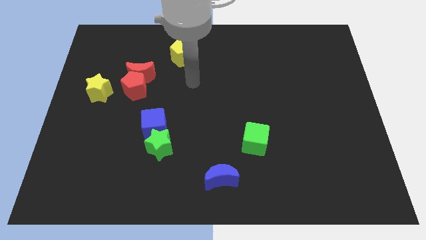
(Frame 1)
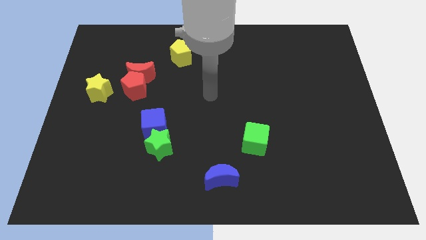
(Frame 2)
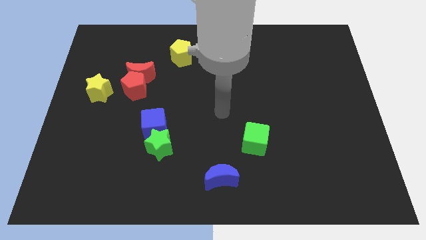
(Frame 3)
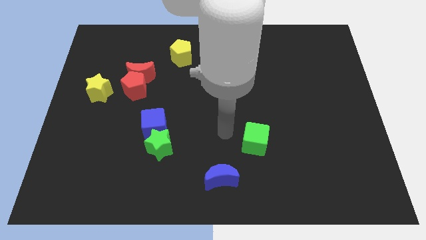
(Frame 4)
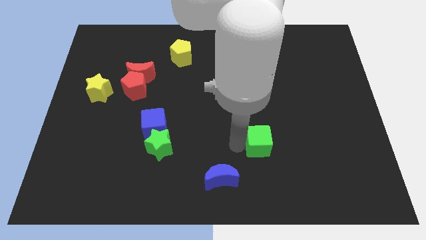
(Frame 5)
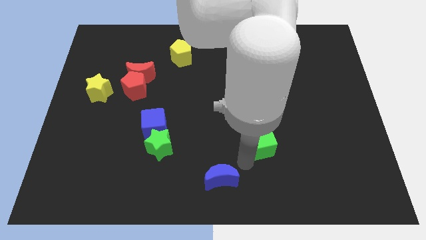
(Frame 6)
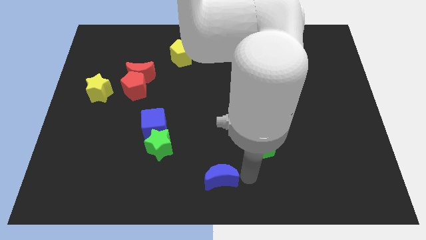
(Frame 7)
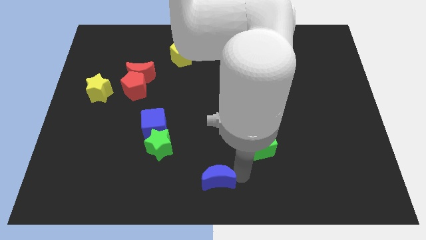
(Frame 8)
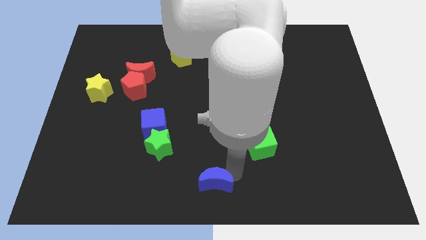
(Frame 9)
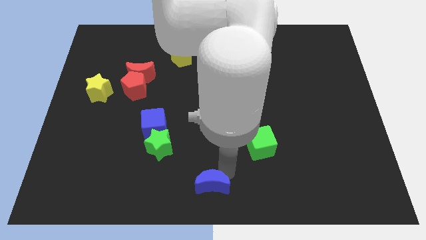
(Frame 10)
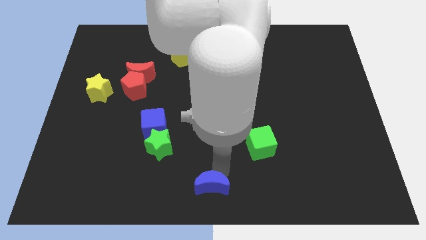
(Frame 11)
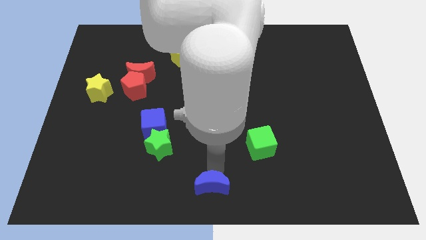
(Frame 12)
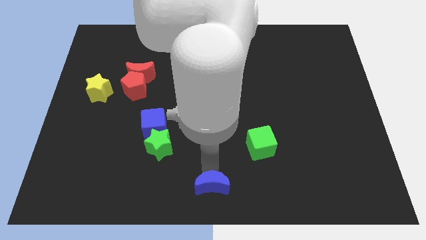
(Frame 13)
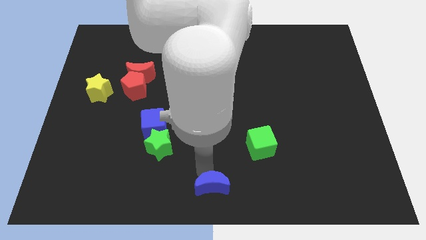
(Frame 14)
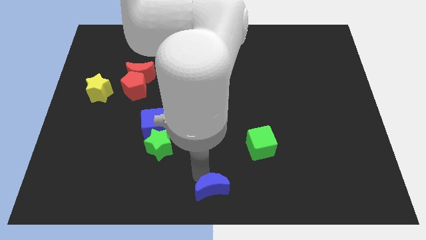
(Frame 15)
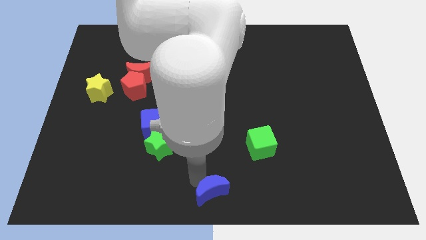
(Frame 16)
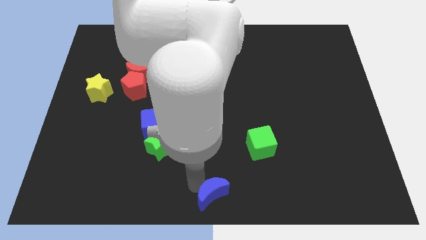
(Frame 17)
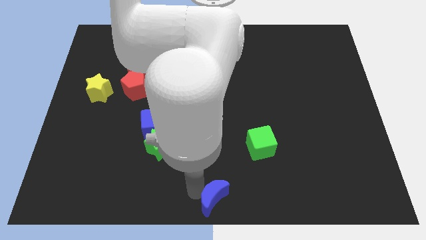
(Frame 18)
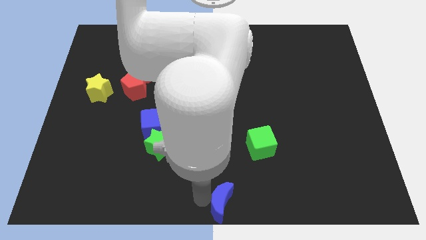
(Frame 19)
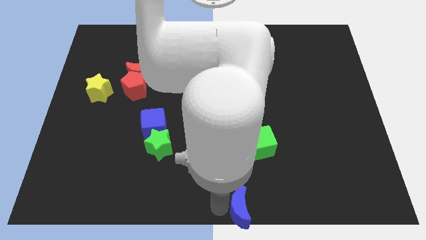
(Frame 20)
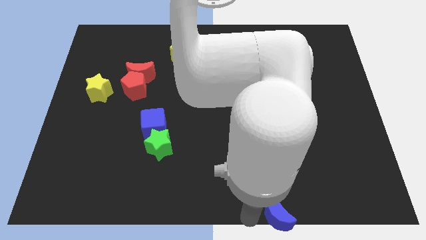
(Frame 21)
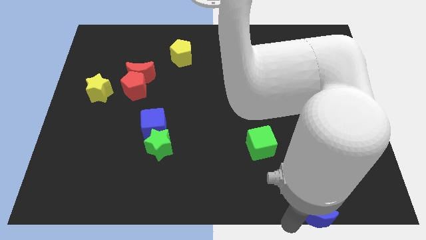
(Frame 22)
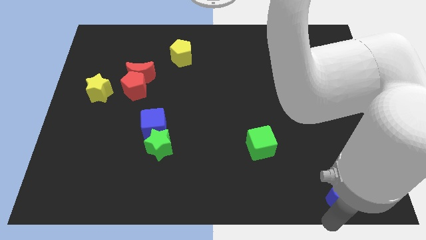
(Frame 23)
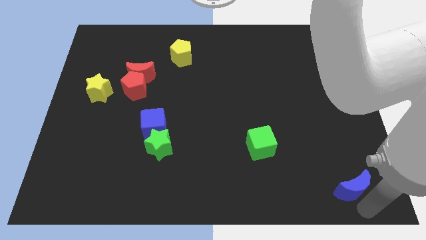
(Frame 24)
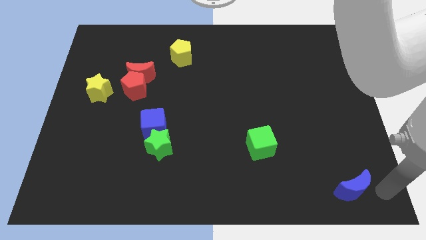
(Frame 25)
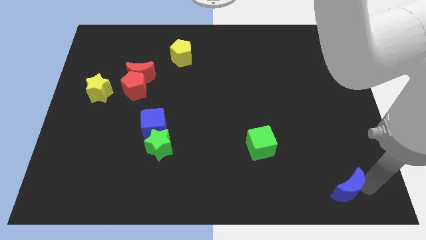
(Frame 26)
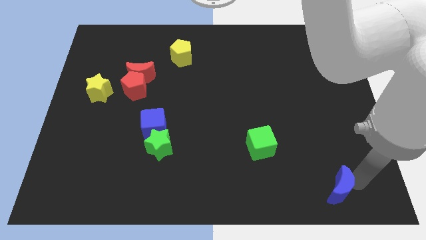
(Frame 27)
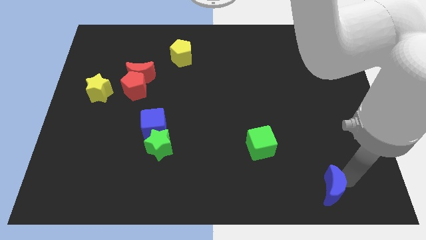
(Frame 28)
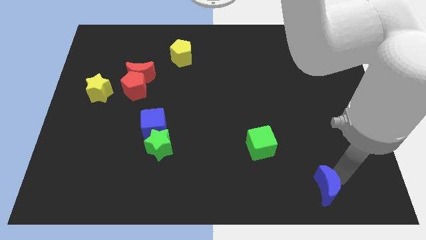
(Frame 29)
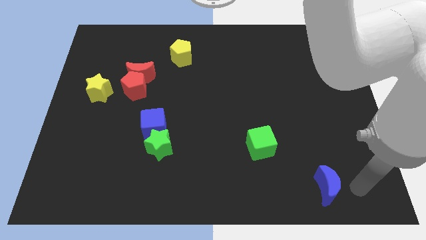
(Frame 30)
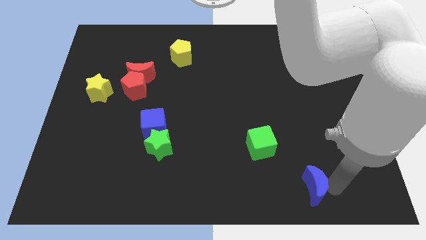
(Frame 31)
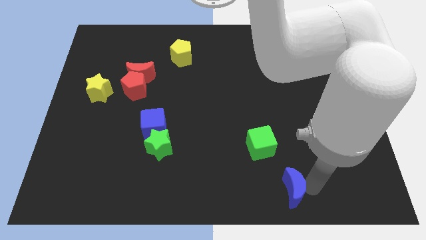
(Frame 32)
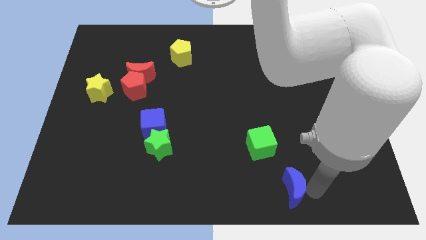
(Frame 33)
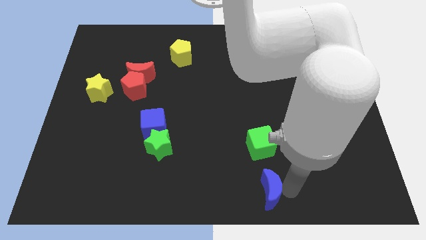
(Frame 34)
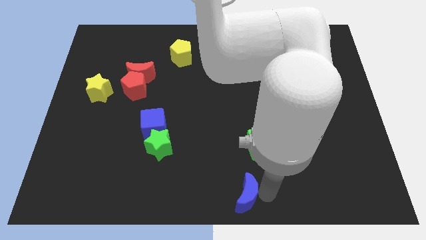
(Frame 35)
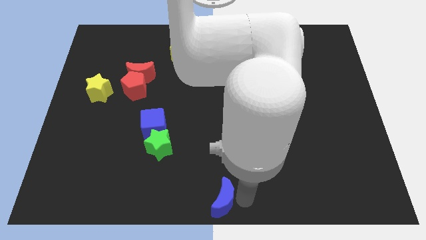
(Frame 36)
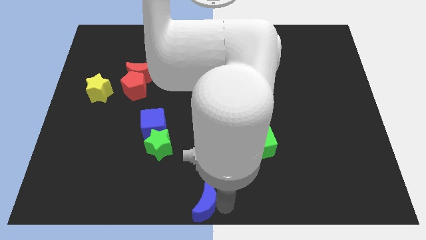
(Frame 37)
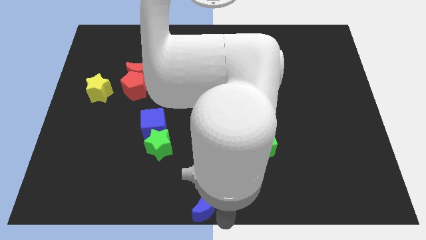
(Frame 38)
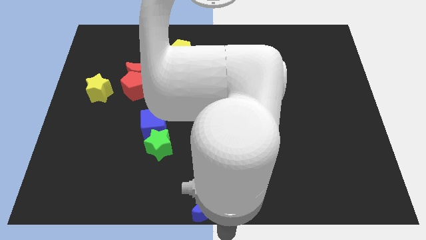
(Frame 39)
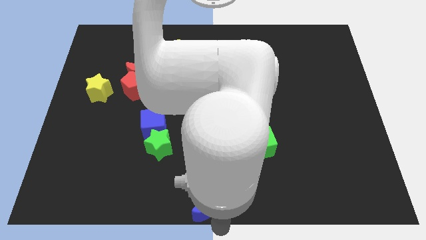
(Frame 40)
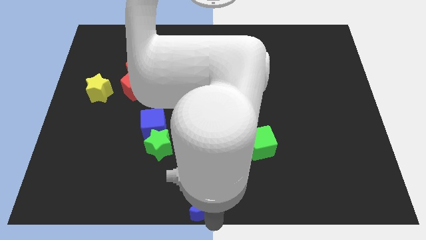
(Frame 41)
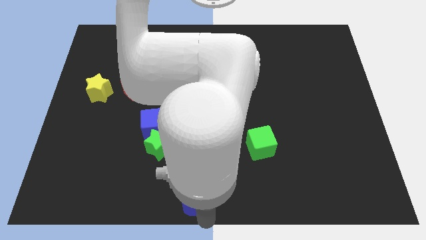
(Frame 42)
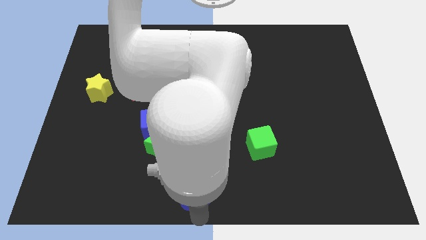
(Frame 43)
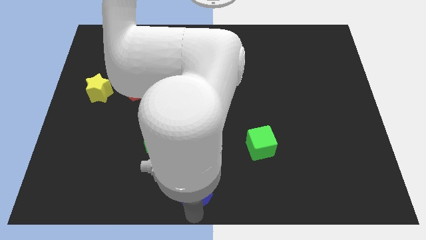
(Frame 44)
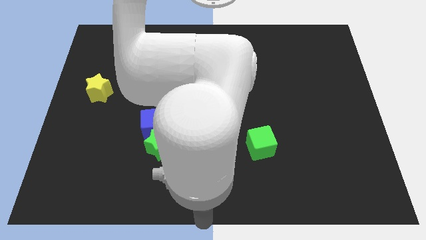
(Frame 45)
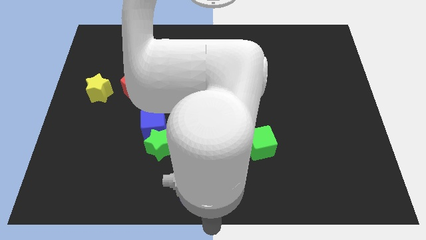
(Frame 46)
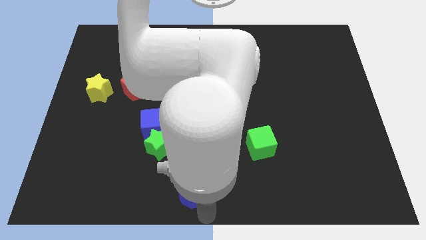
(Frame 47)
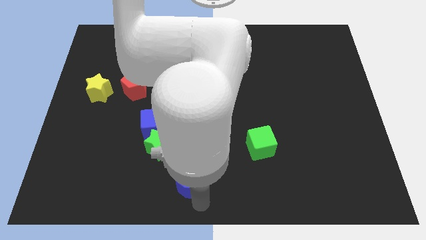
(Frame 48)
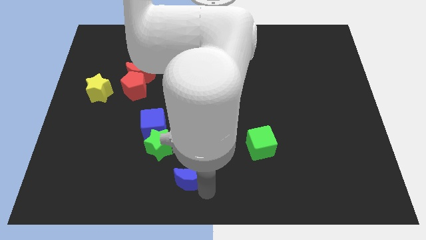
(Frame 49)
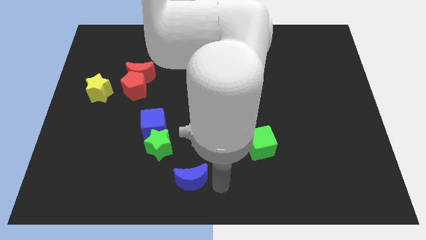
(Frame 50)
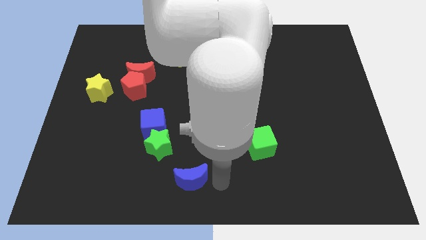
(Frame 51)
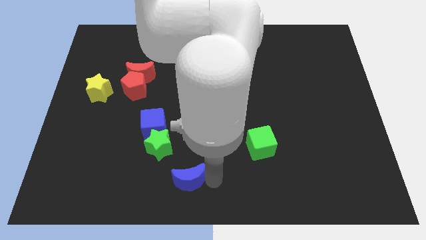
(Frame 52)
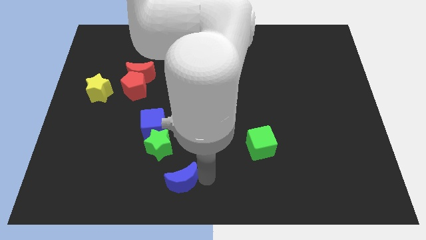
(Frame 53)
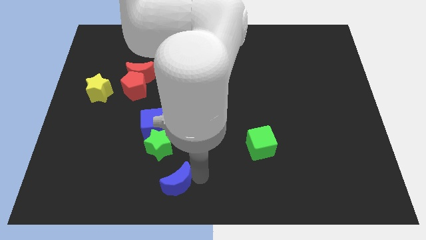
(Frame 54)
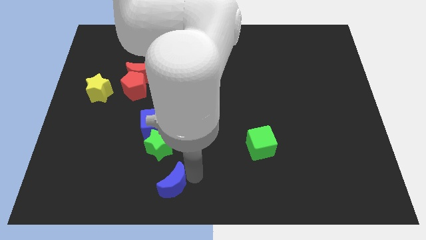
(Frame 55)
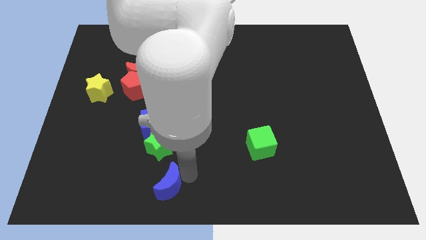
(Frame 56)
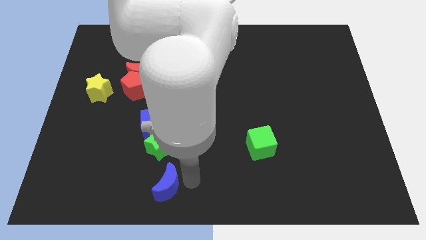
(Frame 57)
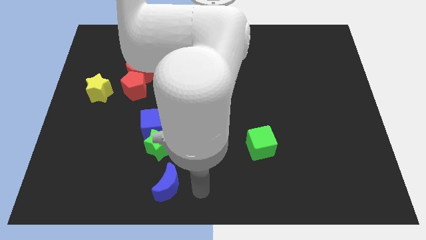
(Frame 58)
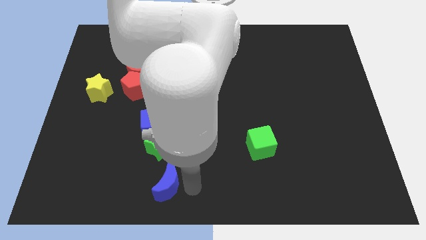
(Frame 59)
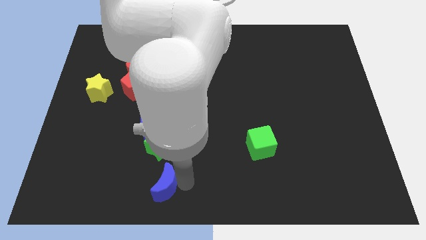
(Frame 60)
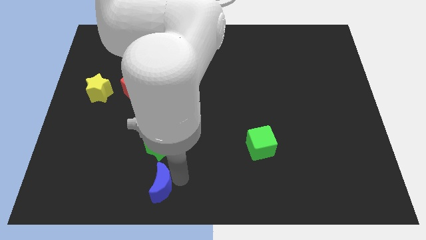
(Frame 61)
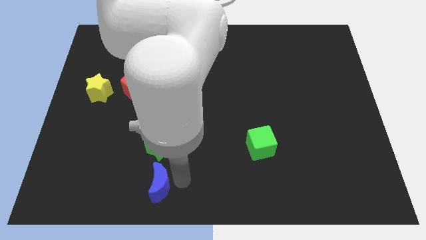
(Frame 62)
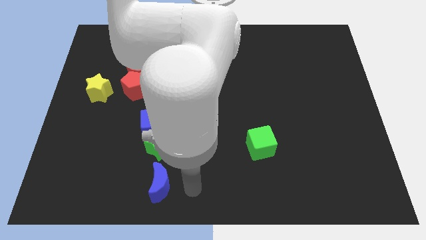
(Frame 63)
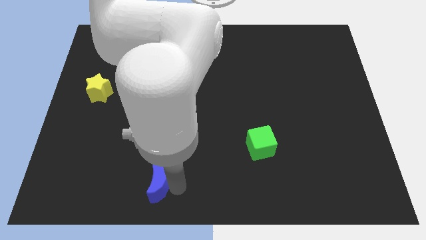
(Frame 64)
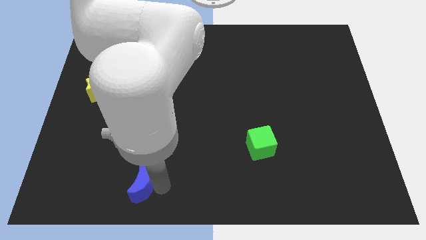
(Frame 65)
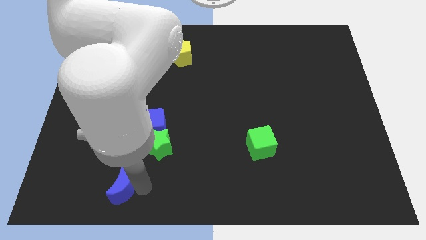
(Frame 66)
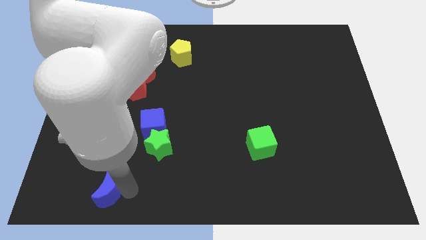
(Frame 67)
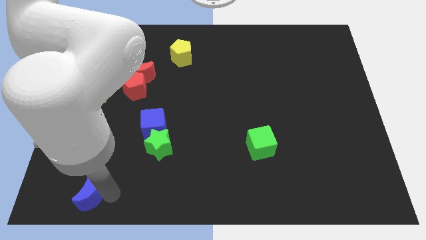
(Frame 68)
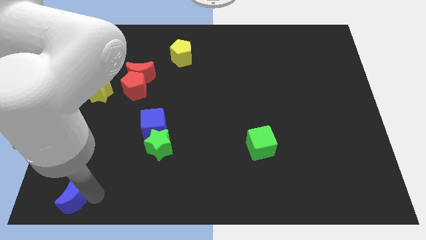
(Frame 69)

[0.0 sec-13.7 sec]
push the blue moon to the lower left corner
